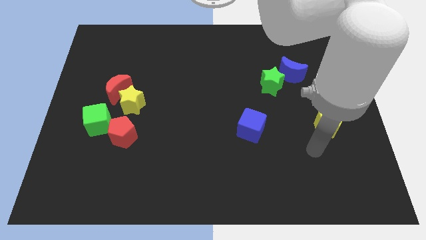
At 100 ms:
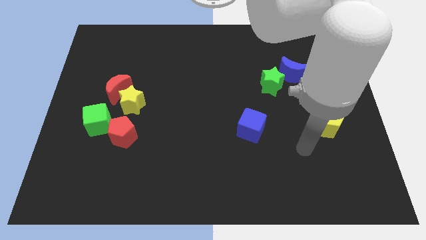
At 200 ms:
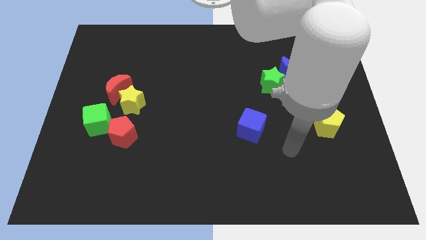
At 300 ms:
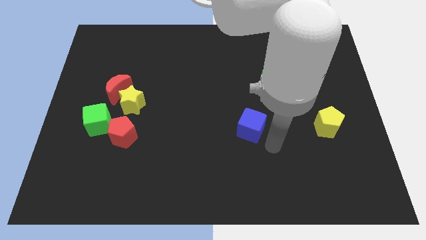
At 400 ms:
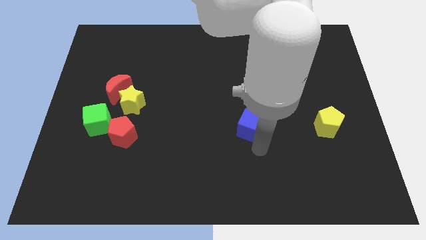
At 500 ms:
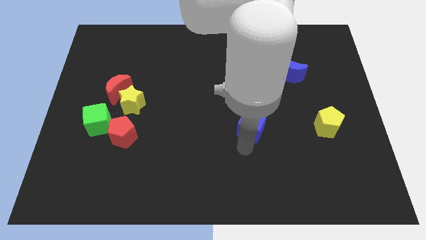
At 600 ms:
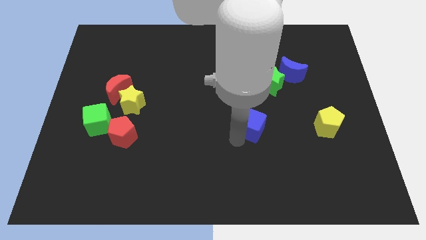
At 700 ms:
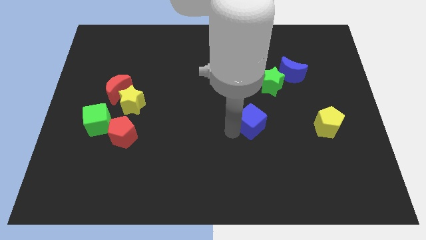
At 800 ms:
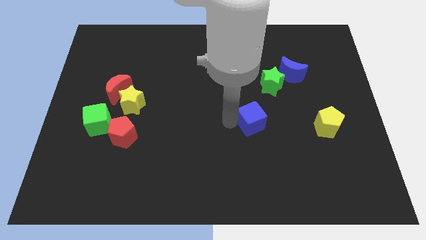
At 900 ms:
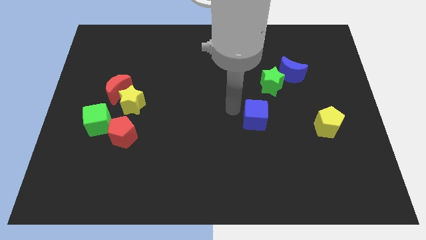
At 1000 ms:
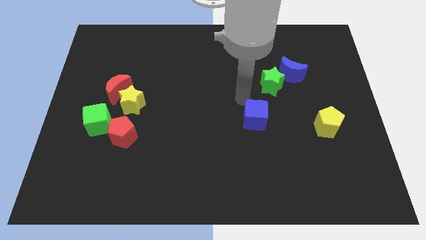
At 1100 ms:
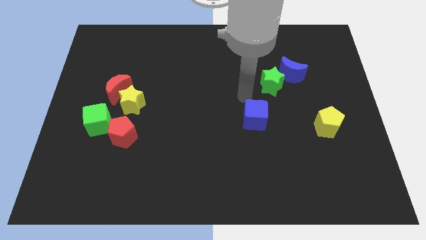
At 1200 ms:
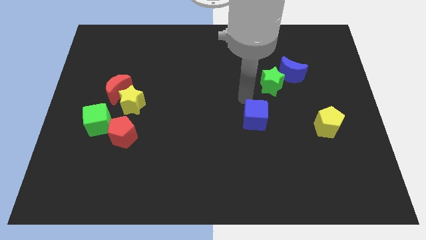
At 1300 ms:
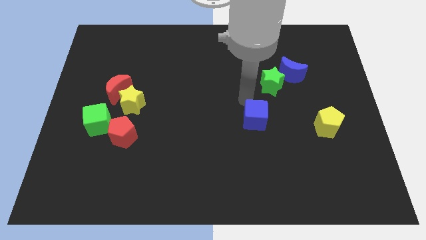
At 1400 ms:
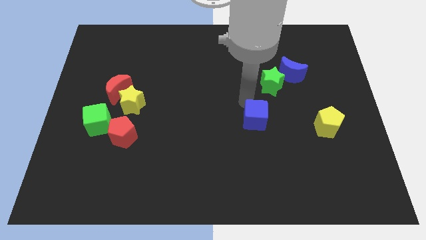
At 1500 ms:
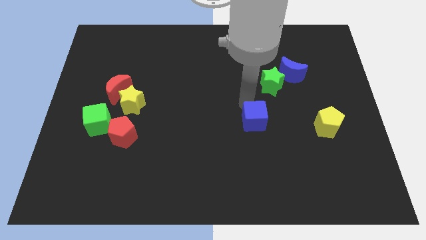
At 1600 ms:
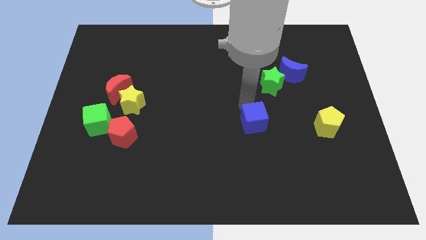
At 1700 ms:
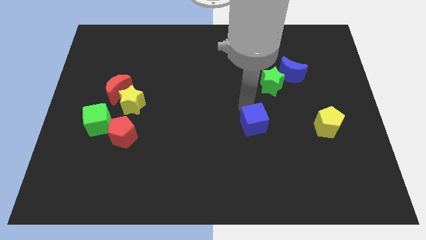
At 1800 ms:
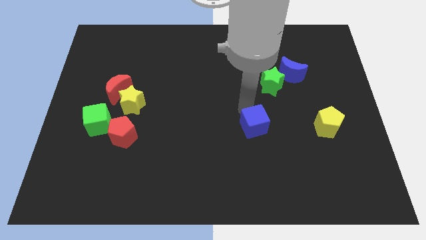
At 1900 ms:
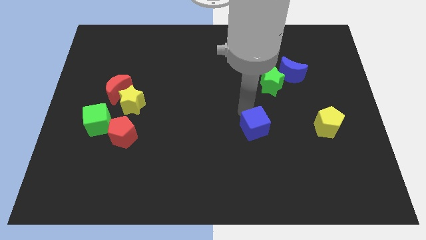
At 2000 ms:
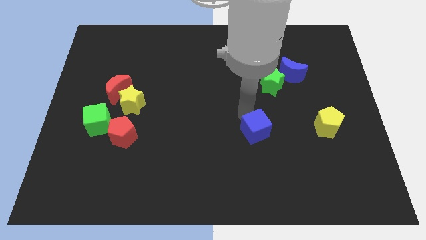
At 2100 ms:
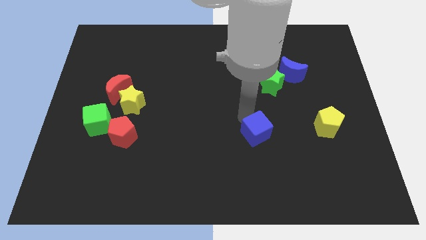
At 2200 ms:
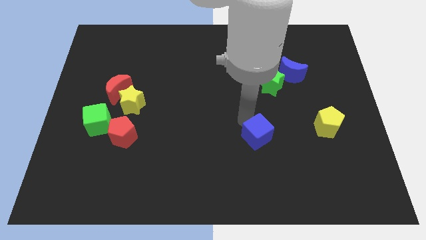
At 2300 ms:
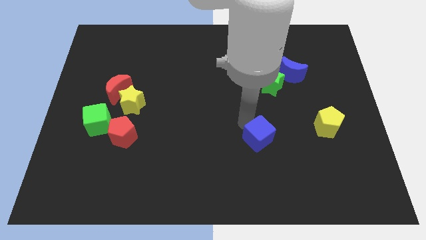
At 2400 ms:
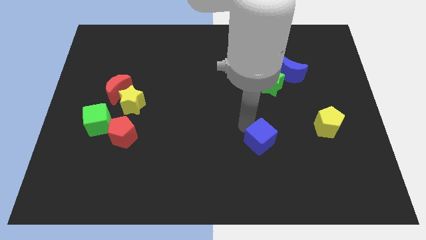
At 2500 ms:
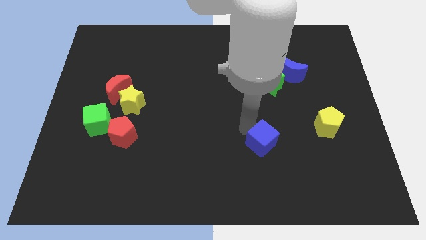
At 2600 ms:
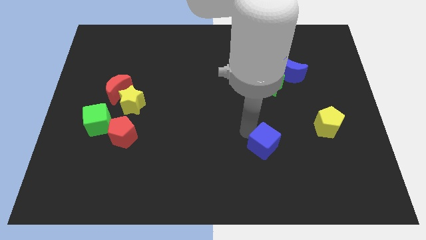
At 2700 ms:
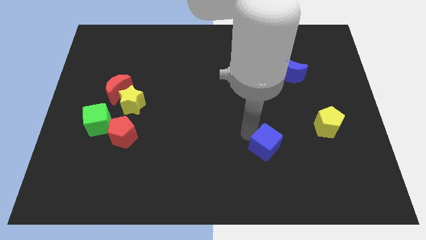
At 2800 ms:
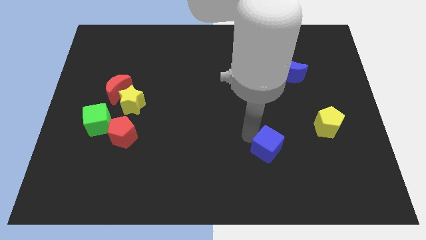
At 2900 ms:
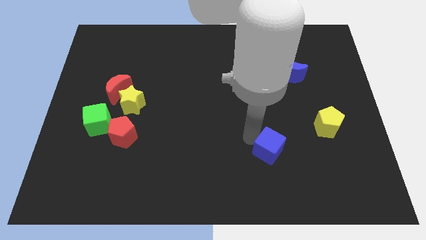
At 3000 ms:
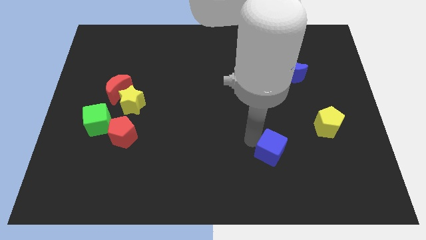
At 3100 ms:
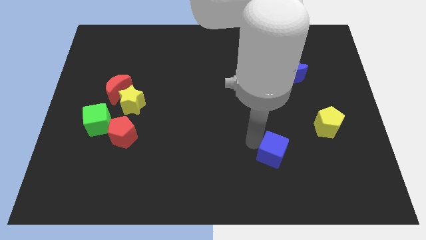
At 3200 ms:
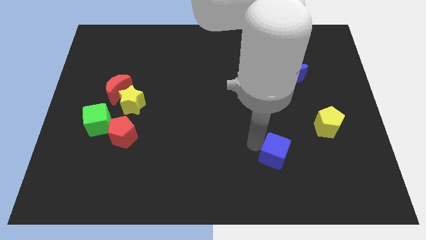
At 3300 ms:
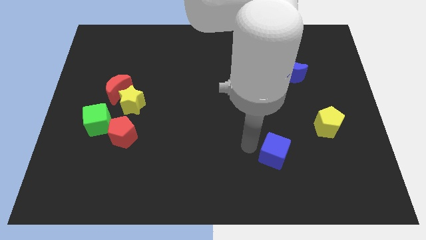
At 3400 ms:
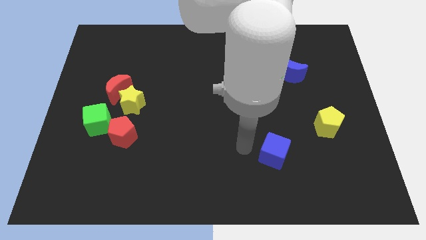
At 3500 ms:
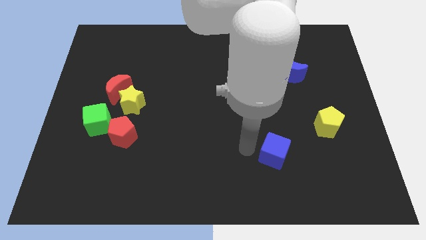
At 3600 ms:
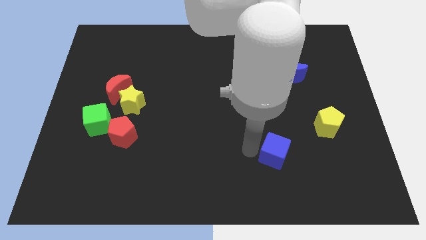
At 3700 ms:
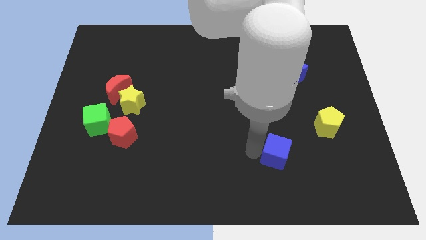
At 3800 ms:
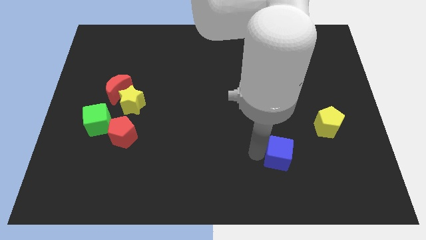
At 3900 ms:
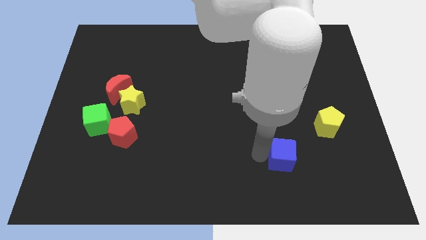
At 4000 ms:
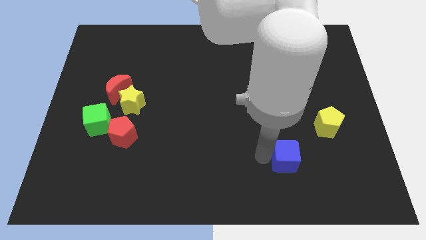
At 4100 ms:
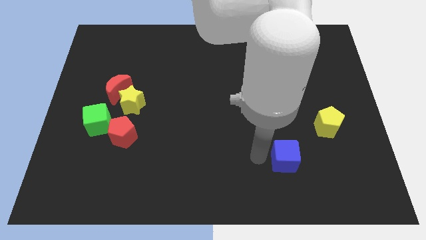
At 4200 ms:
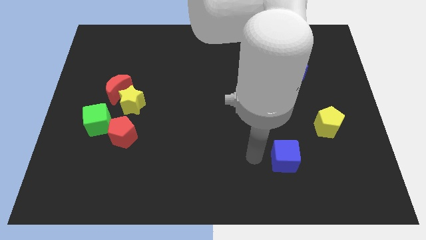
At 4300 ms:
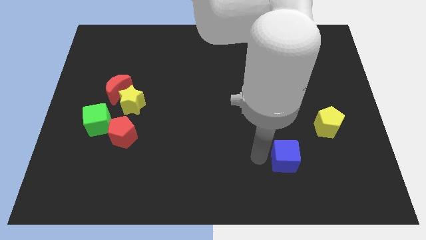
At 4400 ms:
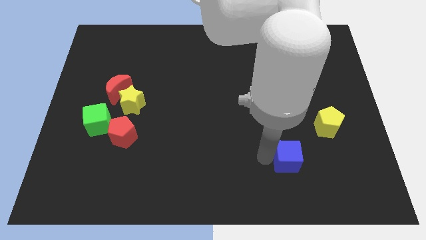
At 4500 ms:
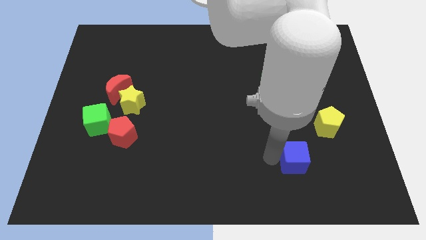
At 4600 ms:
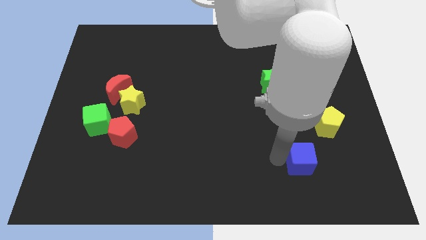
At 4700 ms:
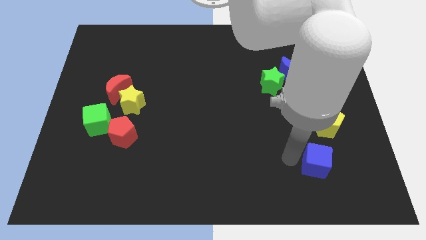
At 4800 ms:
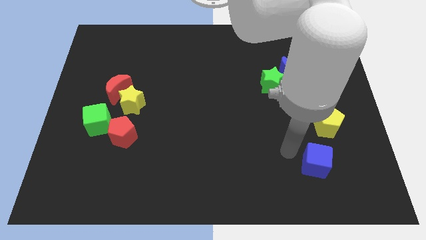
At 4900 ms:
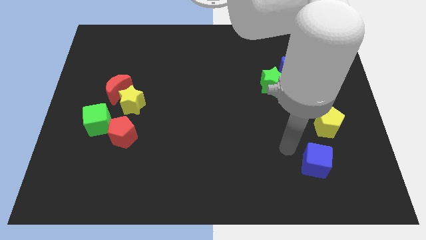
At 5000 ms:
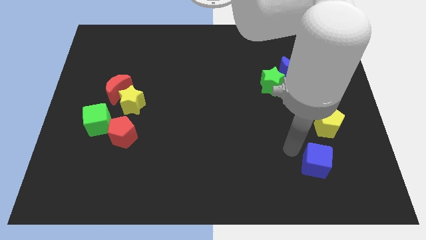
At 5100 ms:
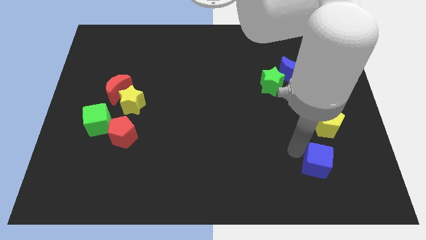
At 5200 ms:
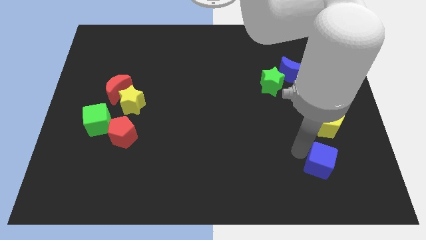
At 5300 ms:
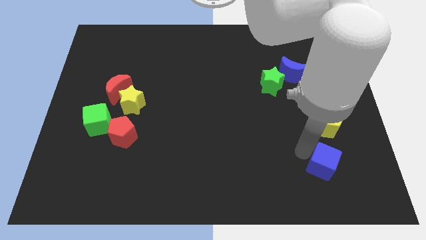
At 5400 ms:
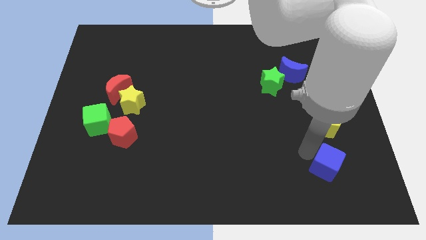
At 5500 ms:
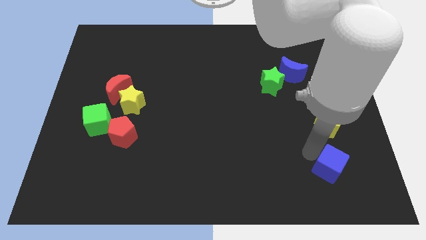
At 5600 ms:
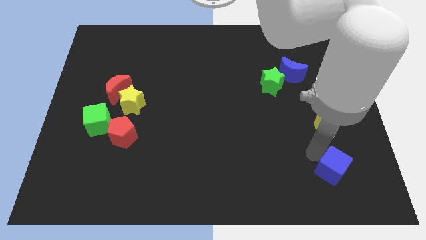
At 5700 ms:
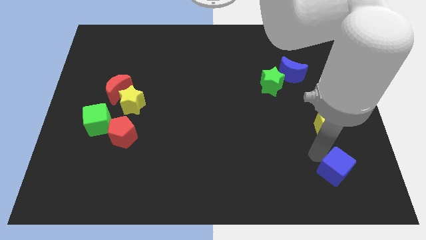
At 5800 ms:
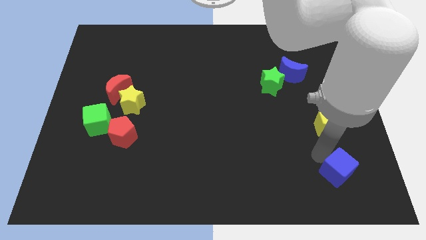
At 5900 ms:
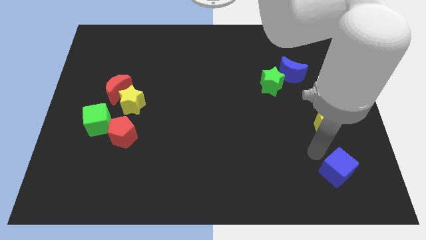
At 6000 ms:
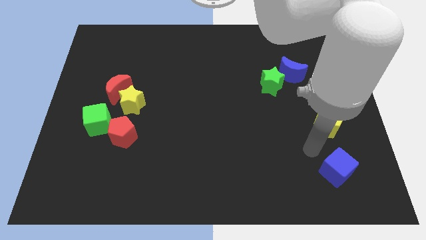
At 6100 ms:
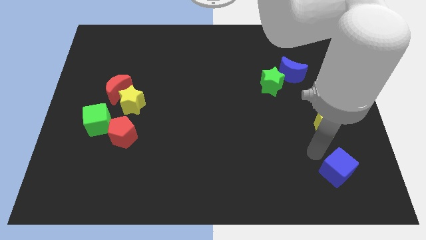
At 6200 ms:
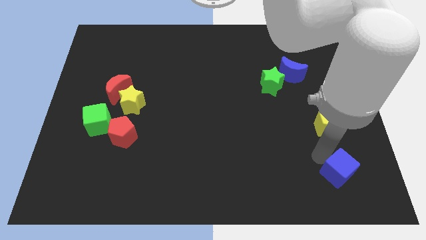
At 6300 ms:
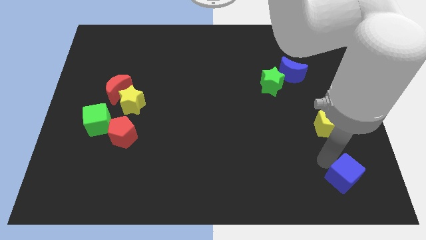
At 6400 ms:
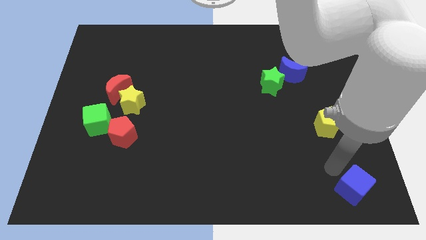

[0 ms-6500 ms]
put the blue cube to the bottom right of the board

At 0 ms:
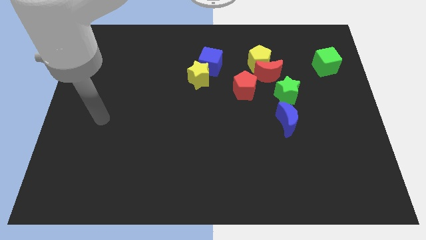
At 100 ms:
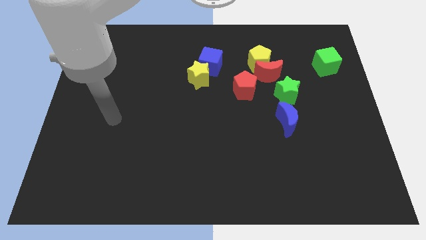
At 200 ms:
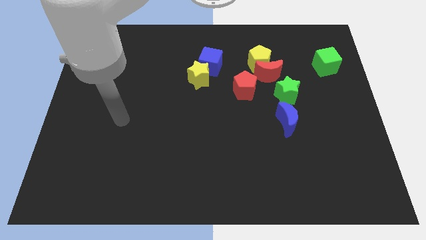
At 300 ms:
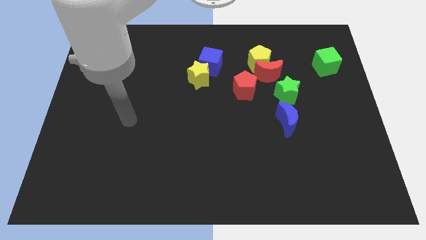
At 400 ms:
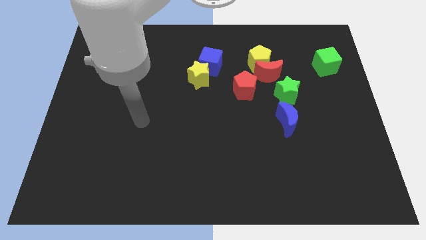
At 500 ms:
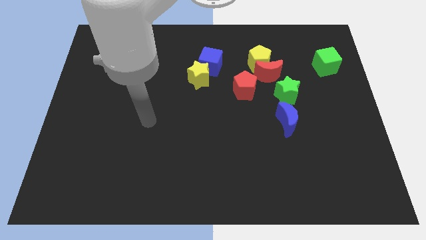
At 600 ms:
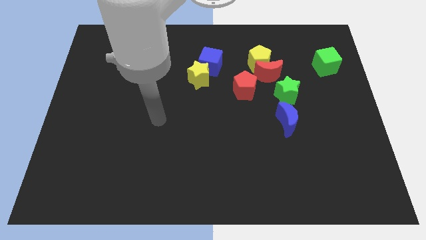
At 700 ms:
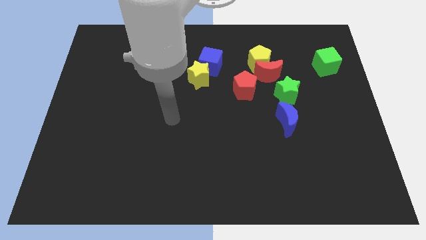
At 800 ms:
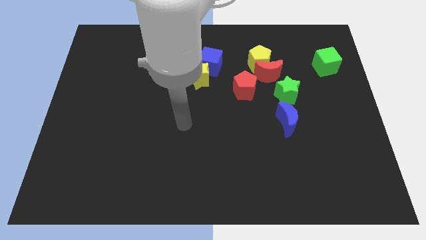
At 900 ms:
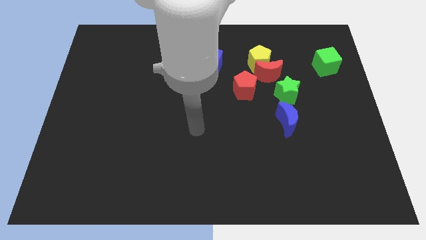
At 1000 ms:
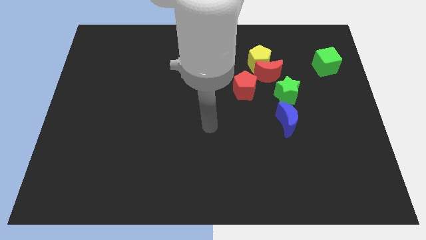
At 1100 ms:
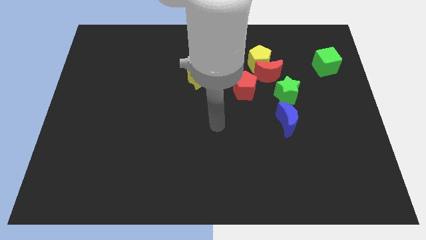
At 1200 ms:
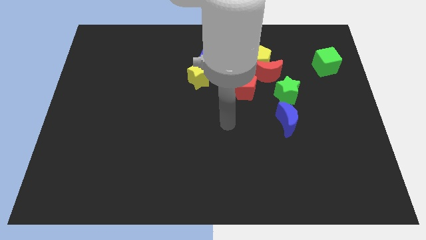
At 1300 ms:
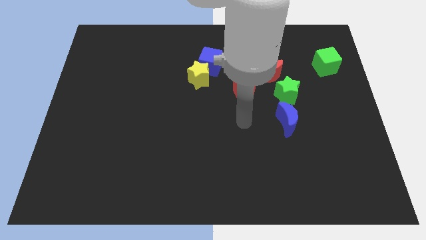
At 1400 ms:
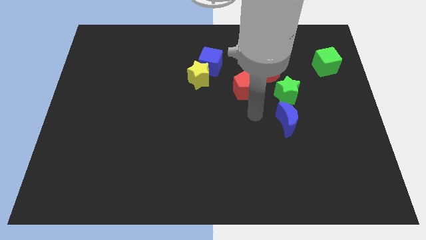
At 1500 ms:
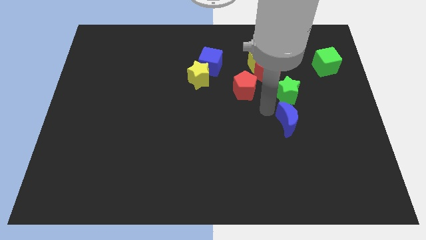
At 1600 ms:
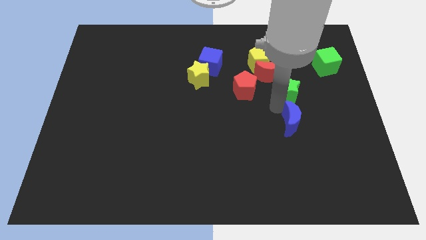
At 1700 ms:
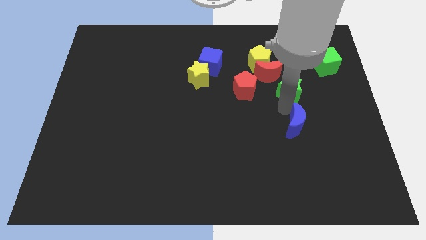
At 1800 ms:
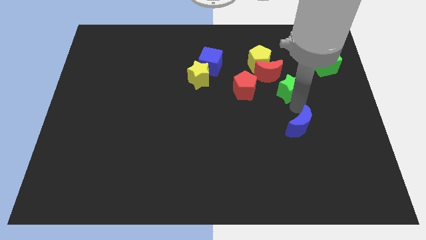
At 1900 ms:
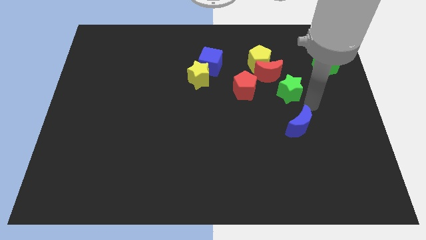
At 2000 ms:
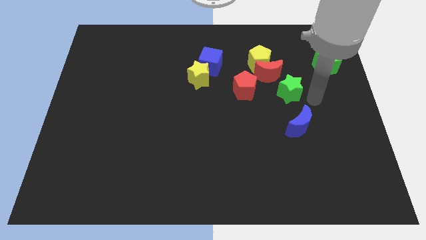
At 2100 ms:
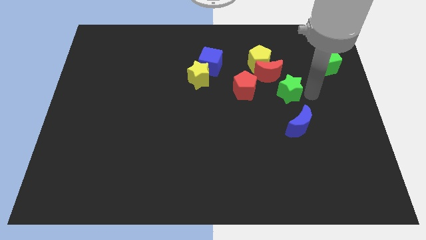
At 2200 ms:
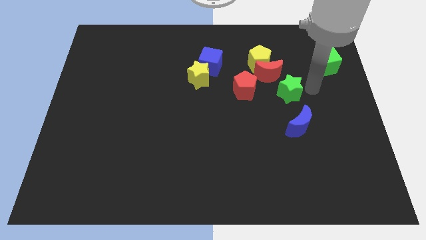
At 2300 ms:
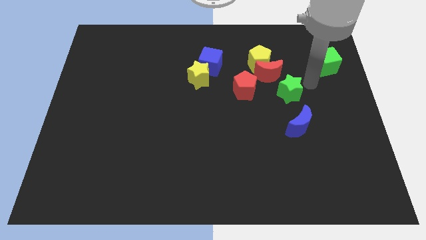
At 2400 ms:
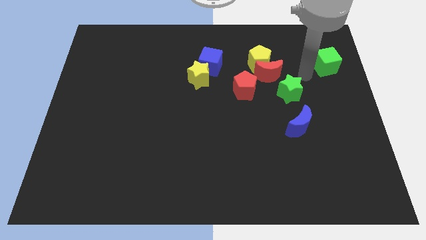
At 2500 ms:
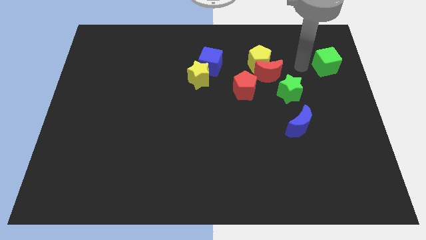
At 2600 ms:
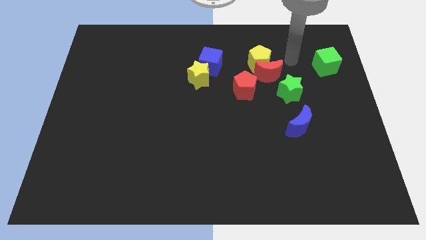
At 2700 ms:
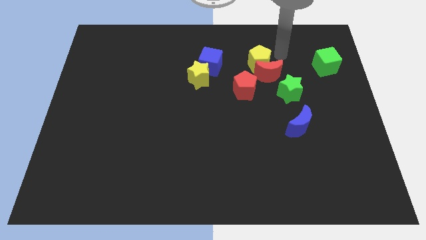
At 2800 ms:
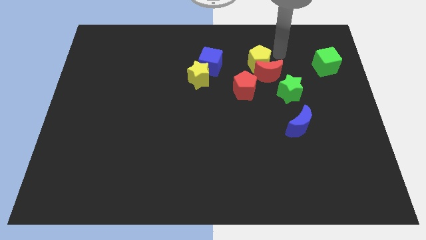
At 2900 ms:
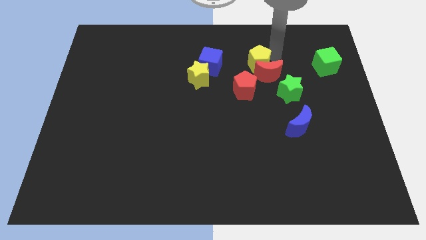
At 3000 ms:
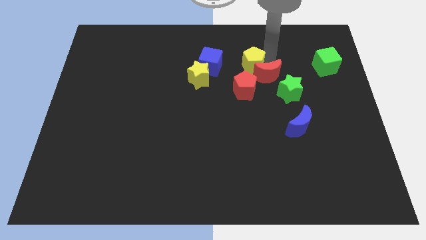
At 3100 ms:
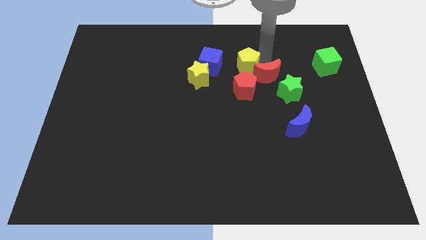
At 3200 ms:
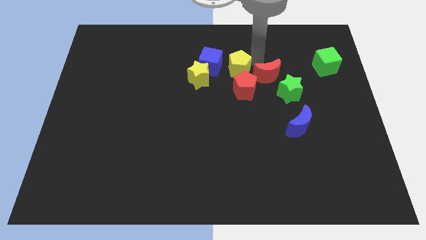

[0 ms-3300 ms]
slide the yellow pentagon to the center
